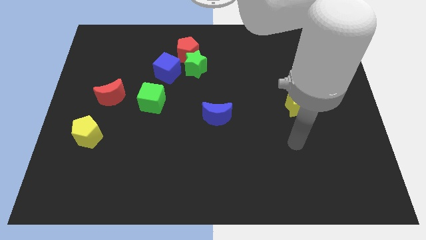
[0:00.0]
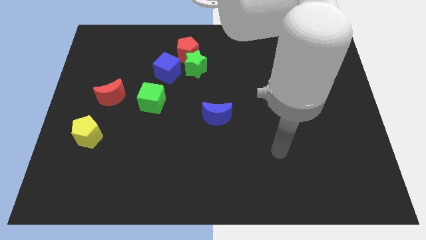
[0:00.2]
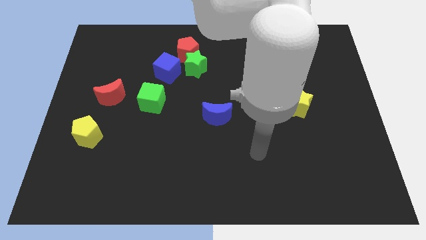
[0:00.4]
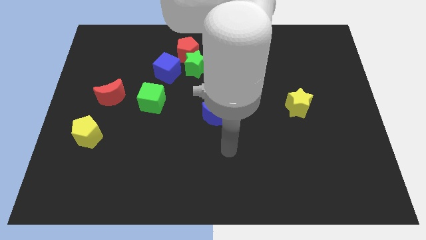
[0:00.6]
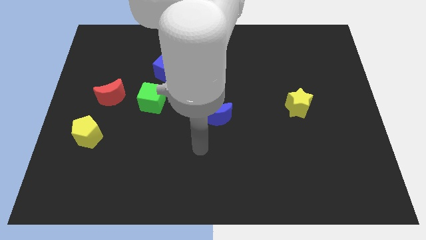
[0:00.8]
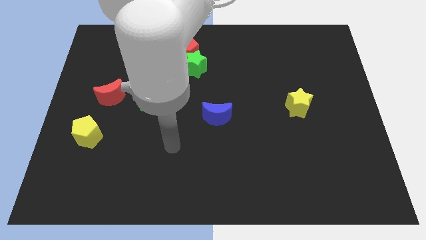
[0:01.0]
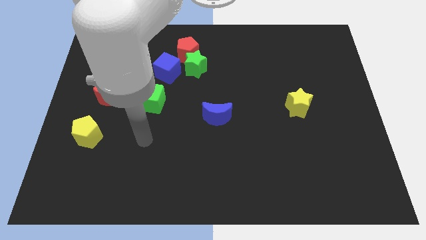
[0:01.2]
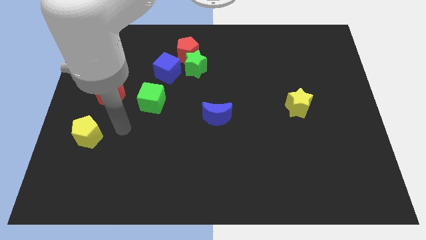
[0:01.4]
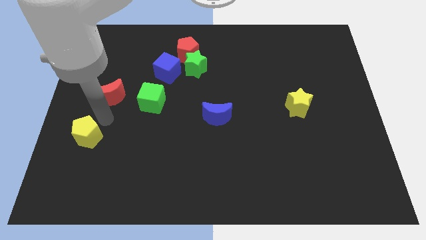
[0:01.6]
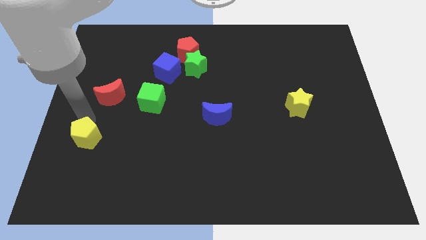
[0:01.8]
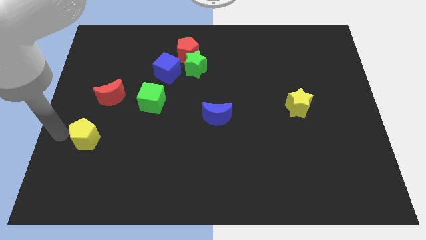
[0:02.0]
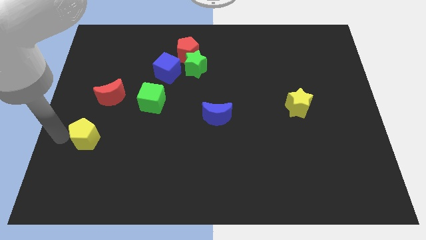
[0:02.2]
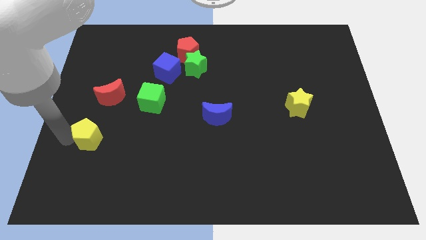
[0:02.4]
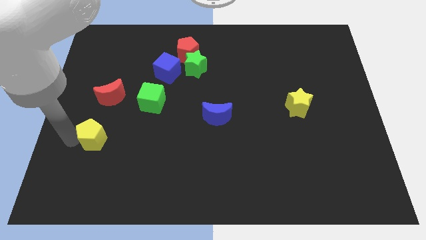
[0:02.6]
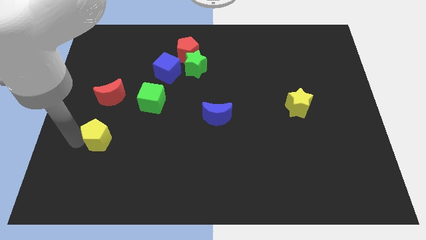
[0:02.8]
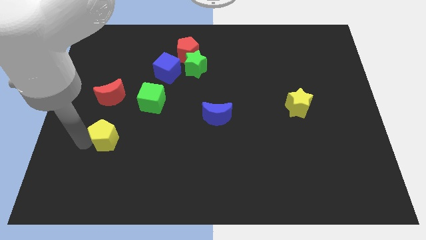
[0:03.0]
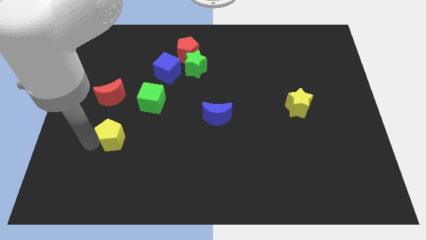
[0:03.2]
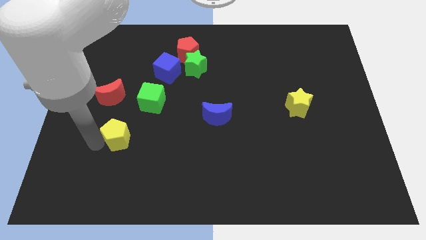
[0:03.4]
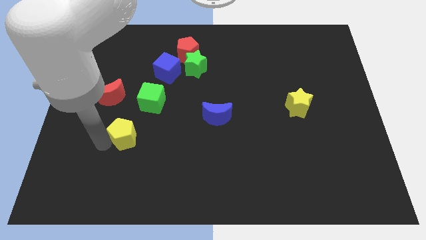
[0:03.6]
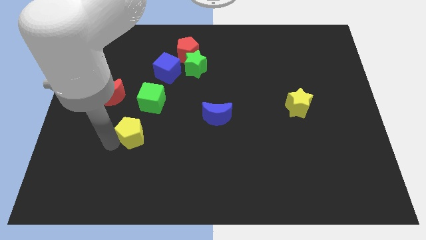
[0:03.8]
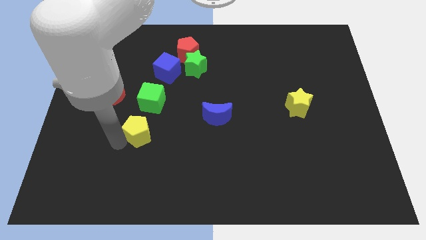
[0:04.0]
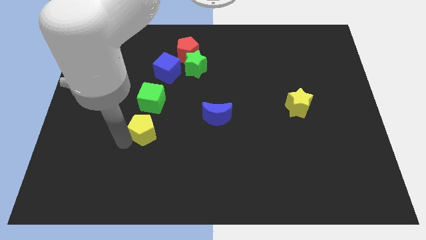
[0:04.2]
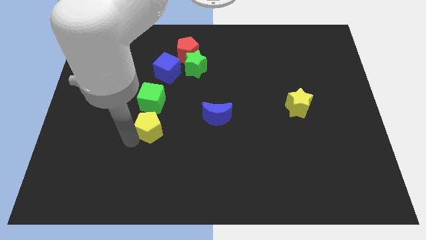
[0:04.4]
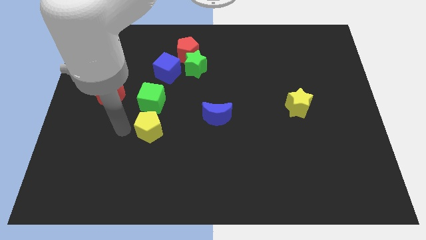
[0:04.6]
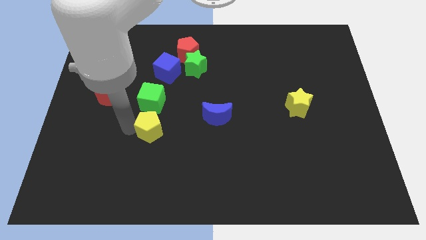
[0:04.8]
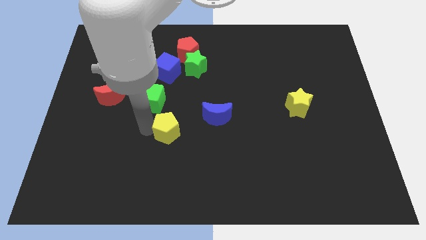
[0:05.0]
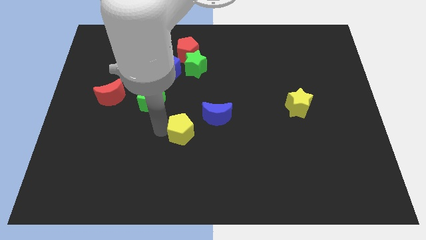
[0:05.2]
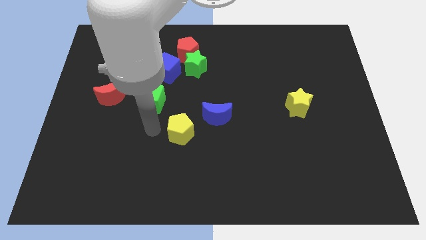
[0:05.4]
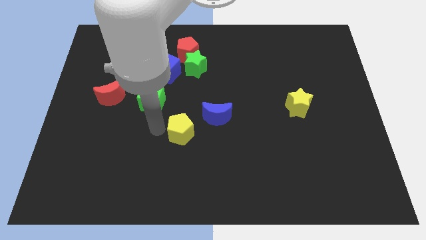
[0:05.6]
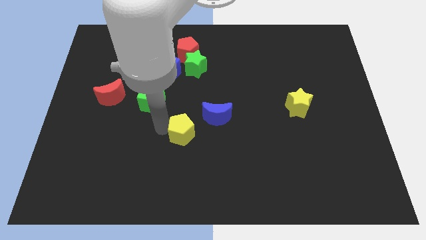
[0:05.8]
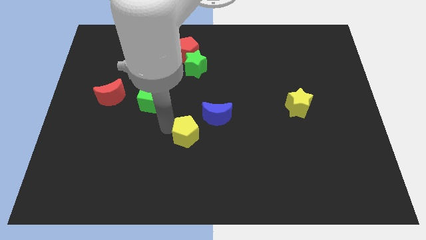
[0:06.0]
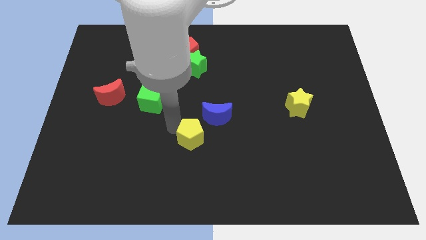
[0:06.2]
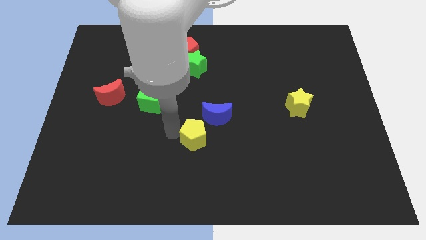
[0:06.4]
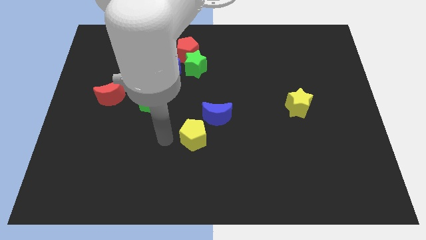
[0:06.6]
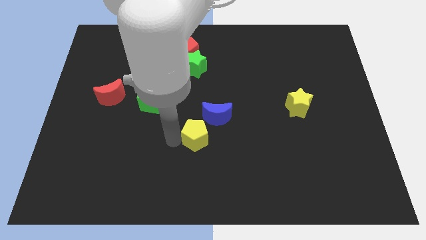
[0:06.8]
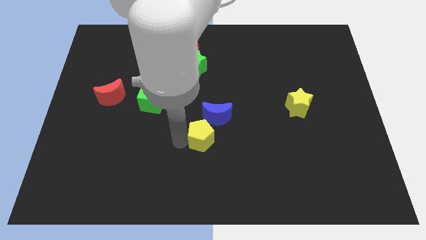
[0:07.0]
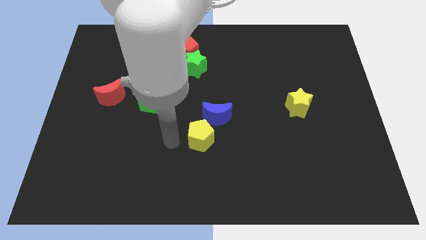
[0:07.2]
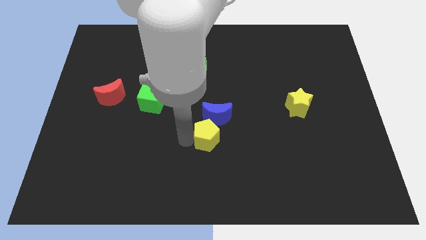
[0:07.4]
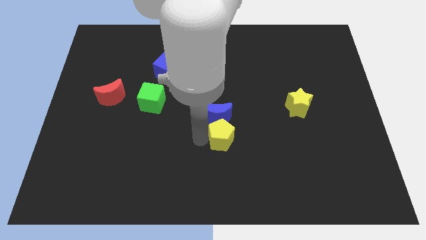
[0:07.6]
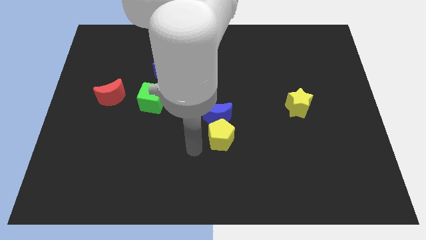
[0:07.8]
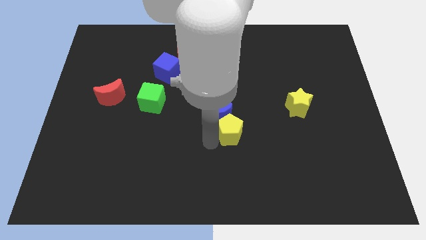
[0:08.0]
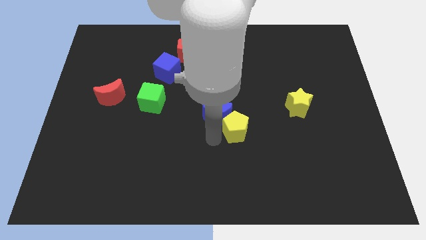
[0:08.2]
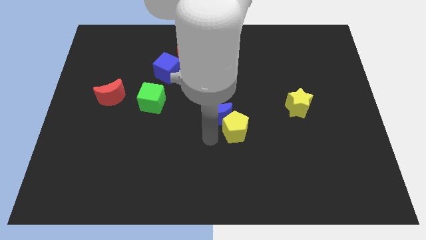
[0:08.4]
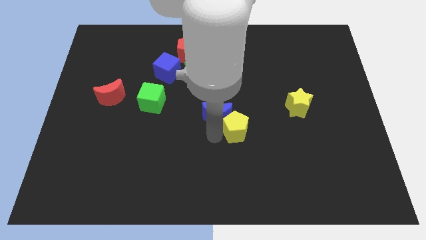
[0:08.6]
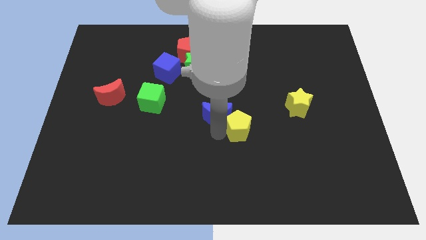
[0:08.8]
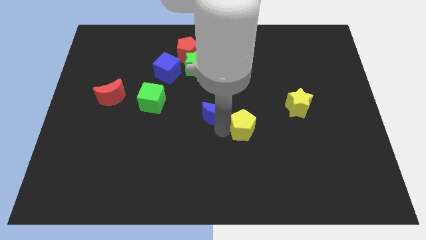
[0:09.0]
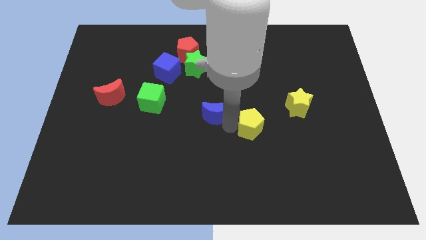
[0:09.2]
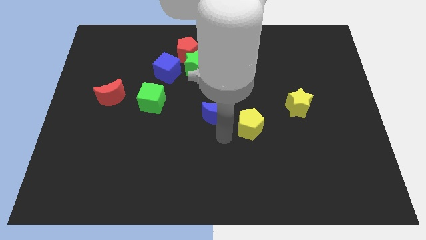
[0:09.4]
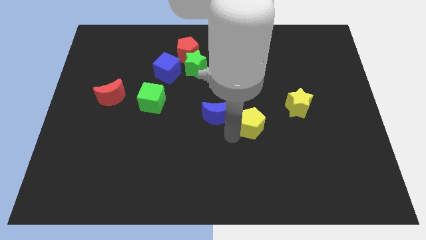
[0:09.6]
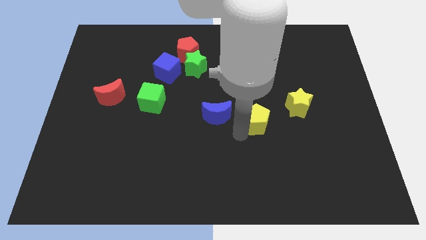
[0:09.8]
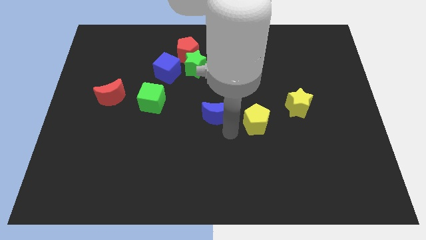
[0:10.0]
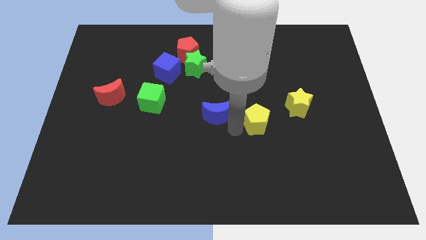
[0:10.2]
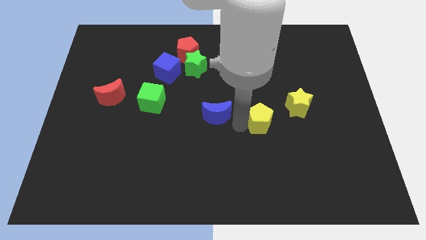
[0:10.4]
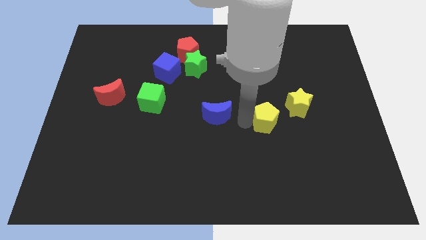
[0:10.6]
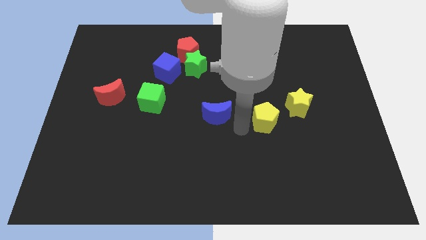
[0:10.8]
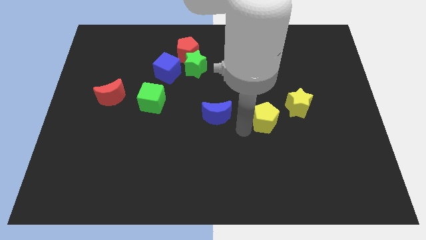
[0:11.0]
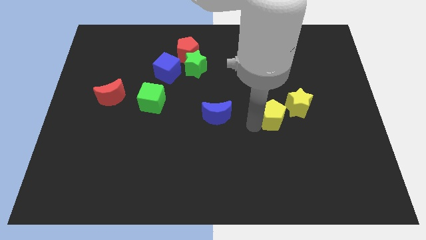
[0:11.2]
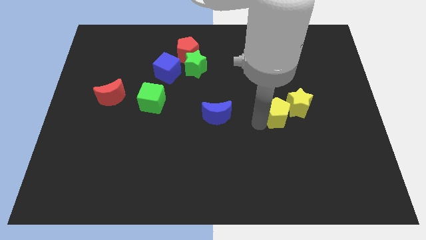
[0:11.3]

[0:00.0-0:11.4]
move the yellow pentagon close to the yellow star

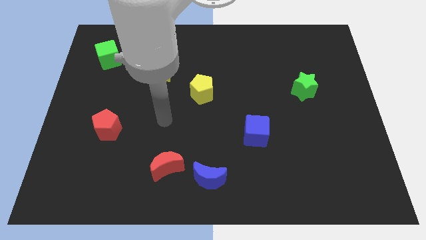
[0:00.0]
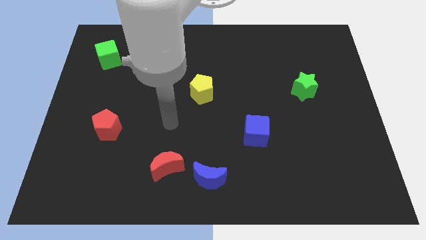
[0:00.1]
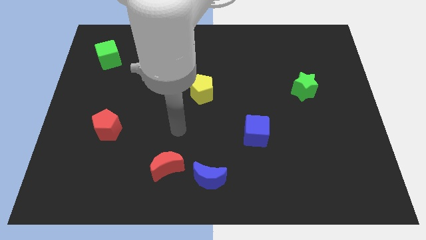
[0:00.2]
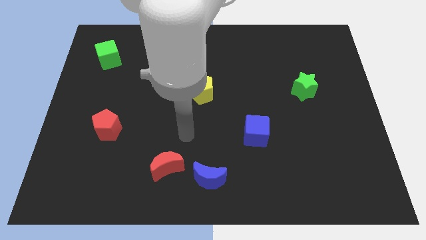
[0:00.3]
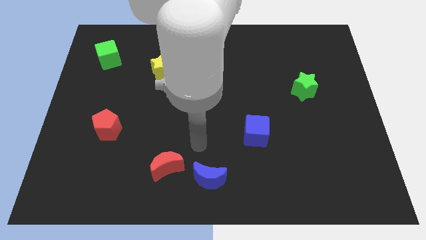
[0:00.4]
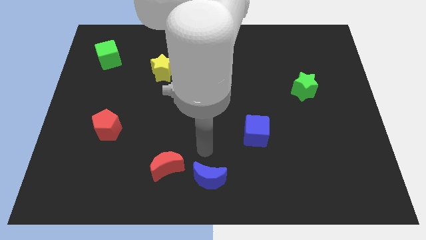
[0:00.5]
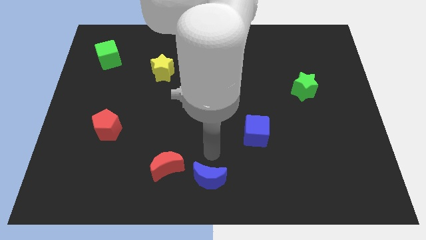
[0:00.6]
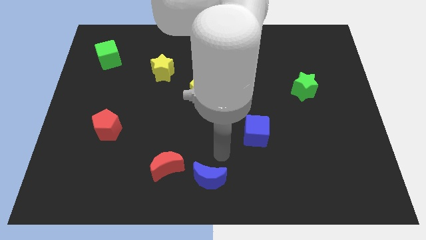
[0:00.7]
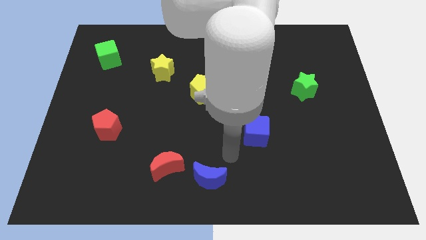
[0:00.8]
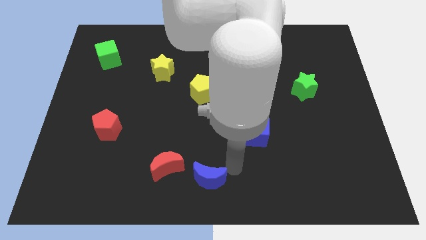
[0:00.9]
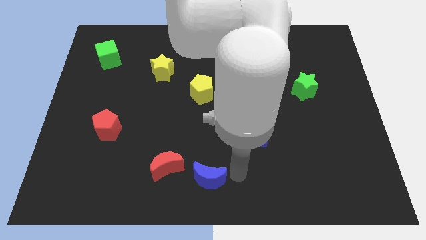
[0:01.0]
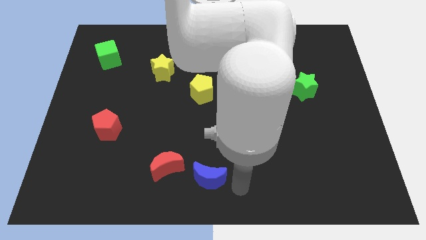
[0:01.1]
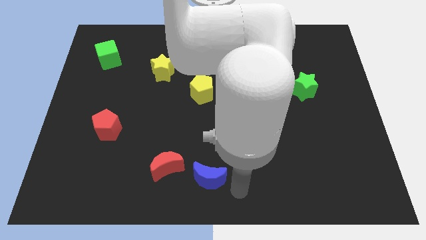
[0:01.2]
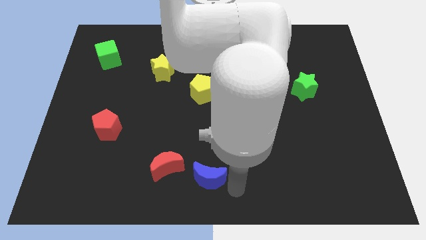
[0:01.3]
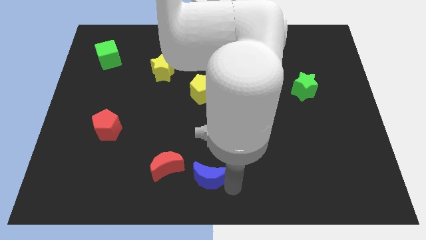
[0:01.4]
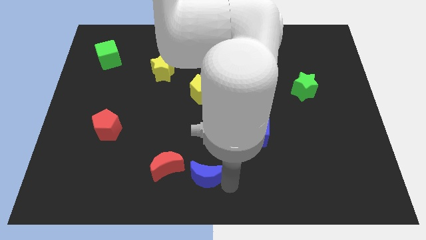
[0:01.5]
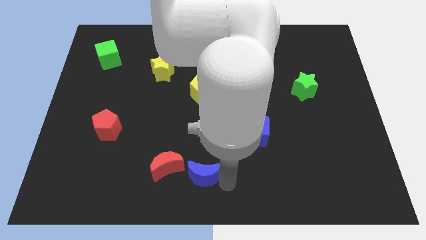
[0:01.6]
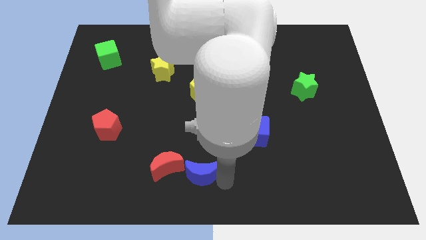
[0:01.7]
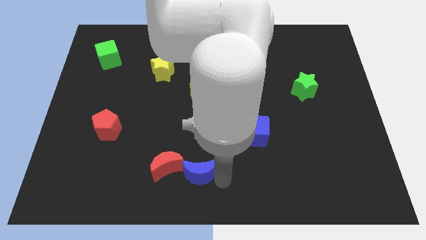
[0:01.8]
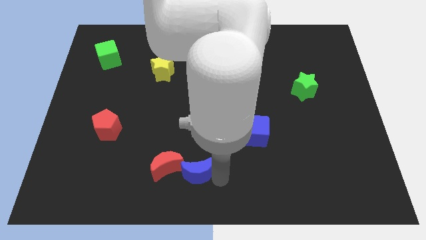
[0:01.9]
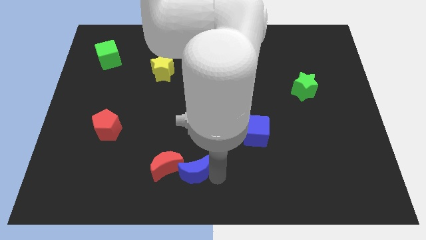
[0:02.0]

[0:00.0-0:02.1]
put the blue moon to the red moon
